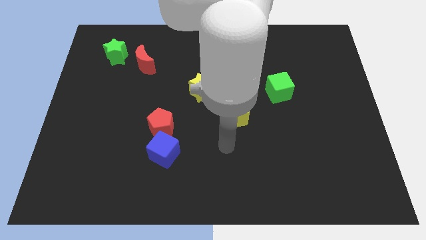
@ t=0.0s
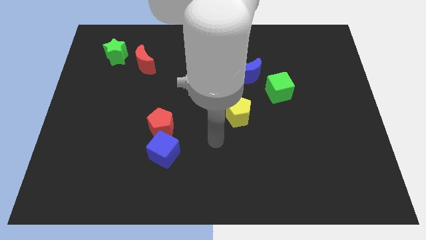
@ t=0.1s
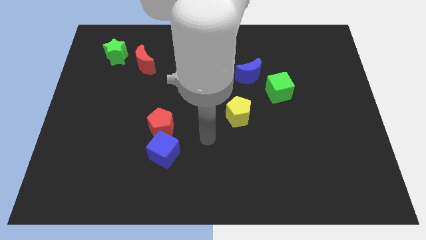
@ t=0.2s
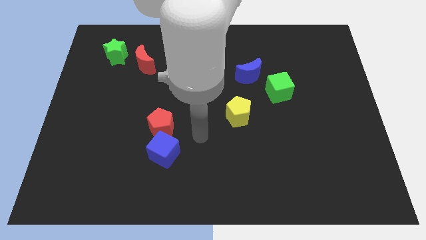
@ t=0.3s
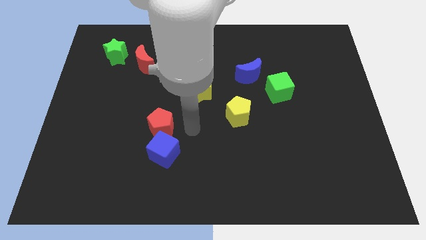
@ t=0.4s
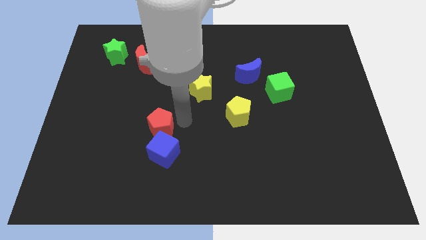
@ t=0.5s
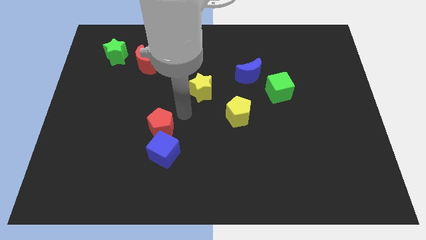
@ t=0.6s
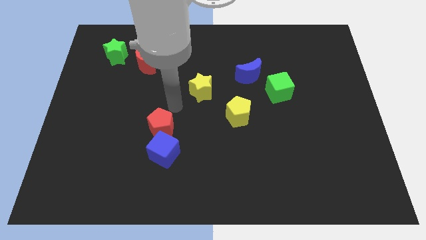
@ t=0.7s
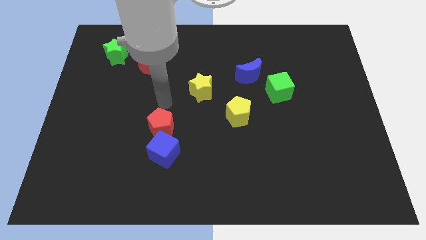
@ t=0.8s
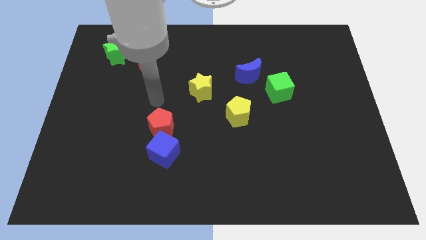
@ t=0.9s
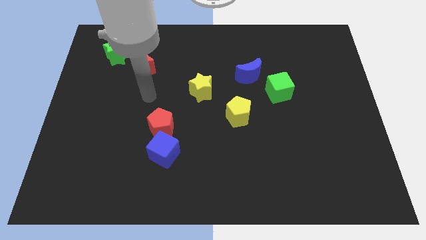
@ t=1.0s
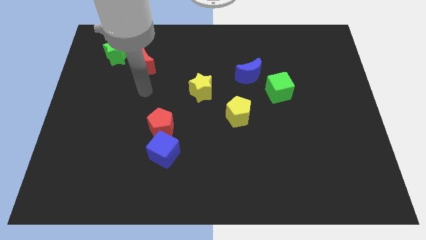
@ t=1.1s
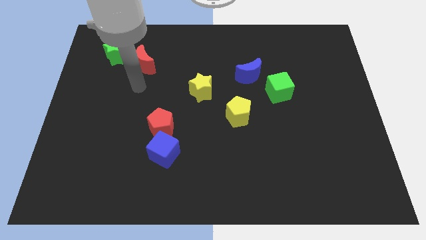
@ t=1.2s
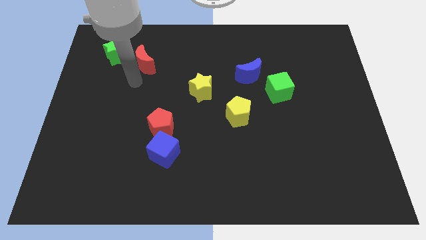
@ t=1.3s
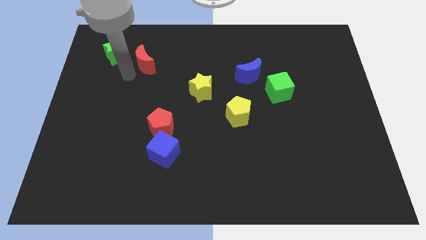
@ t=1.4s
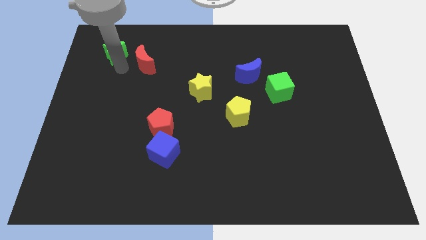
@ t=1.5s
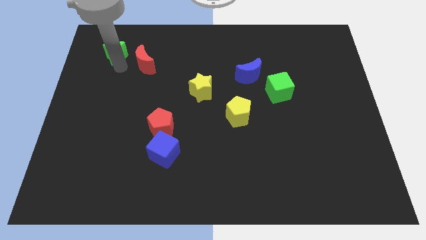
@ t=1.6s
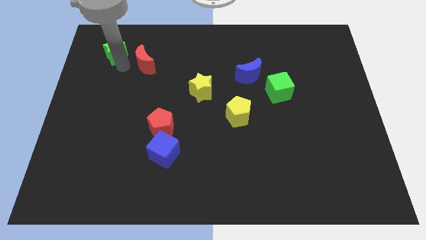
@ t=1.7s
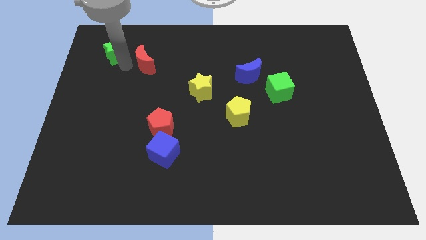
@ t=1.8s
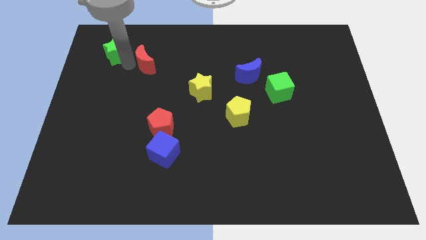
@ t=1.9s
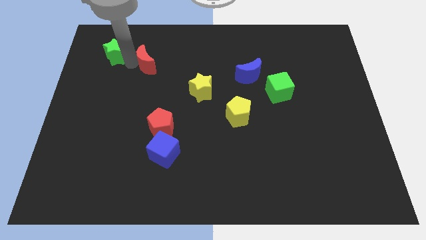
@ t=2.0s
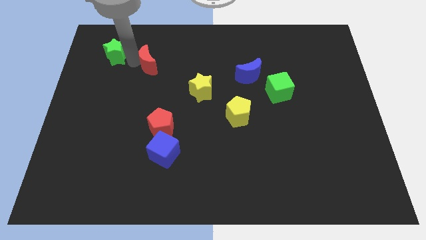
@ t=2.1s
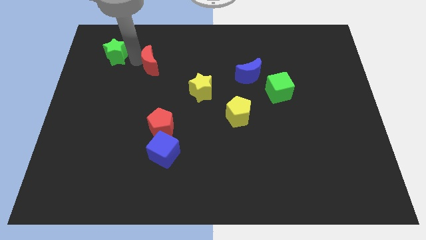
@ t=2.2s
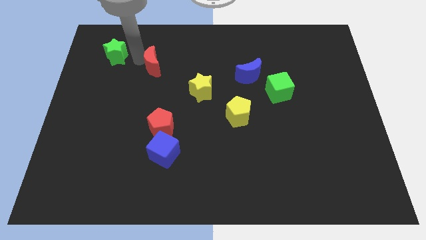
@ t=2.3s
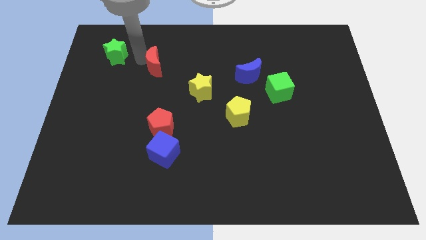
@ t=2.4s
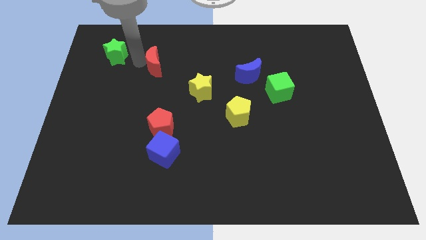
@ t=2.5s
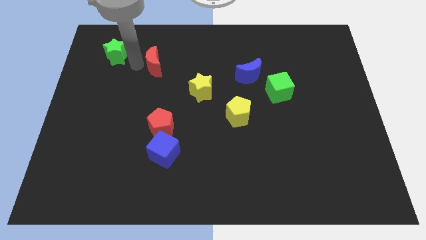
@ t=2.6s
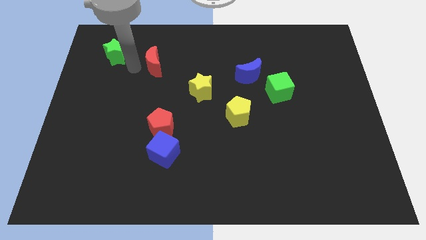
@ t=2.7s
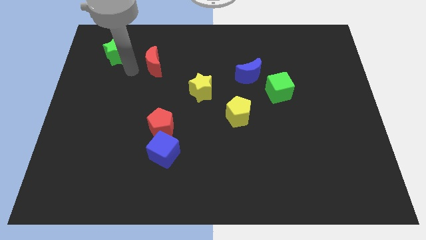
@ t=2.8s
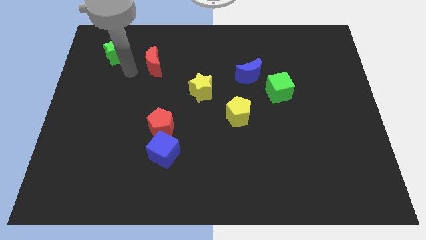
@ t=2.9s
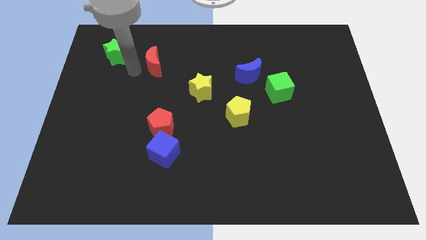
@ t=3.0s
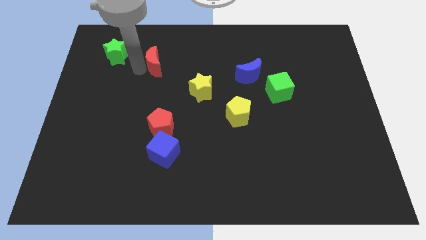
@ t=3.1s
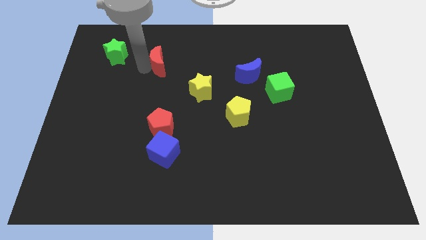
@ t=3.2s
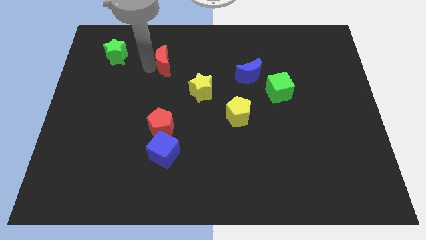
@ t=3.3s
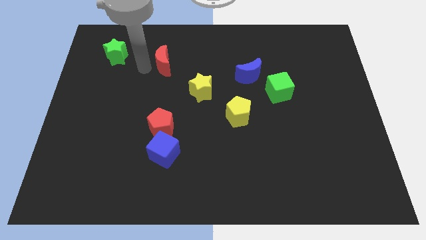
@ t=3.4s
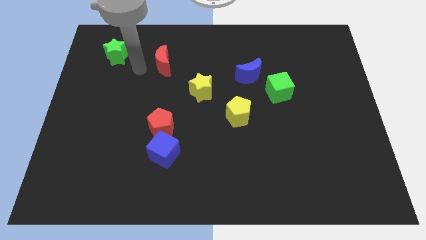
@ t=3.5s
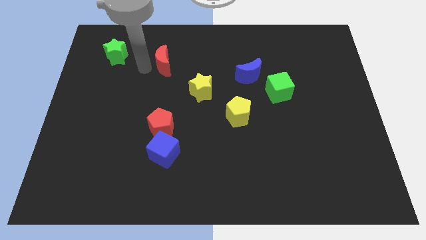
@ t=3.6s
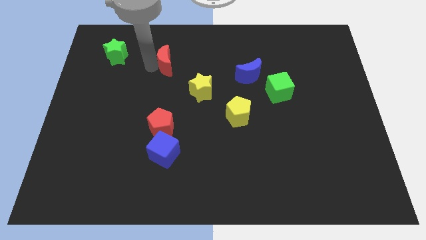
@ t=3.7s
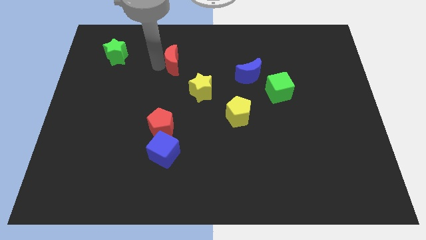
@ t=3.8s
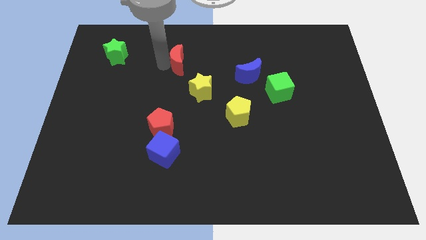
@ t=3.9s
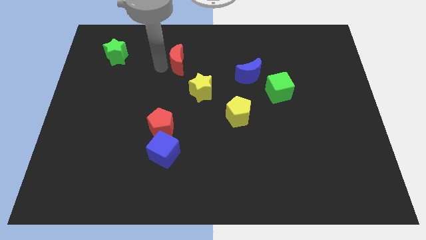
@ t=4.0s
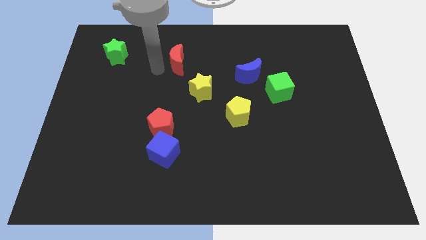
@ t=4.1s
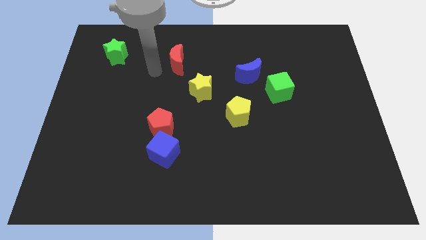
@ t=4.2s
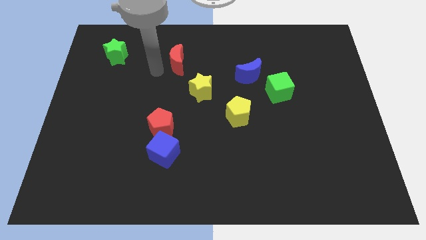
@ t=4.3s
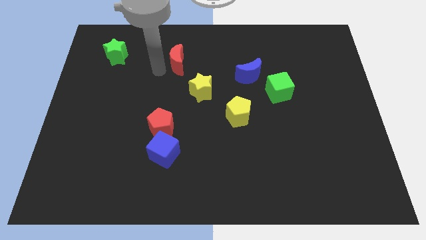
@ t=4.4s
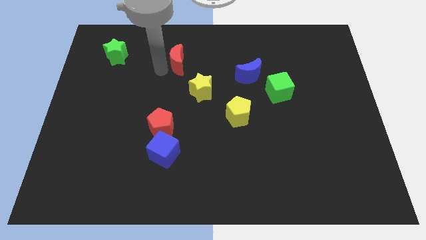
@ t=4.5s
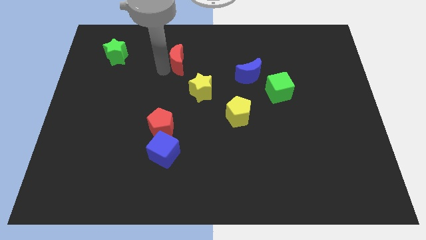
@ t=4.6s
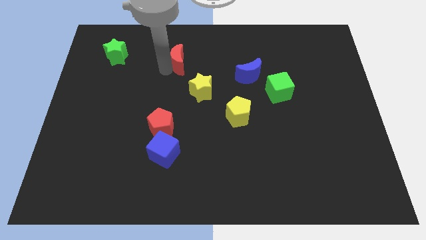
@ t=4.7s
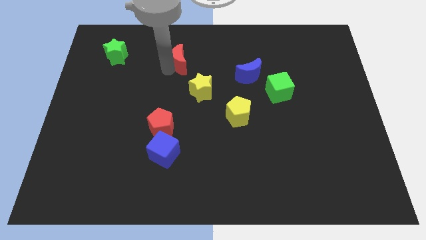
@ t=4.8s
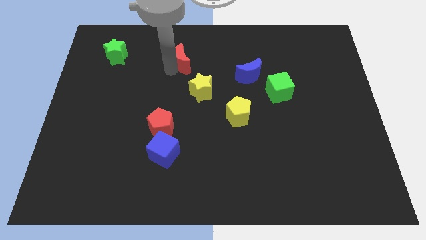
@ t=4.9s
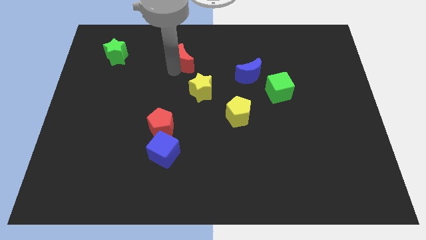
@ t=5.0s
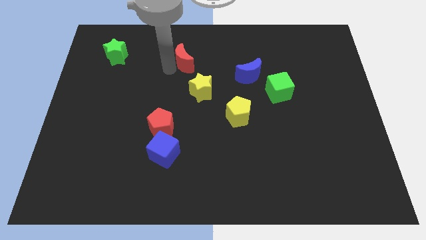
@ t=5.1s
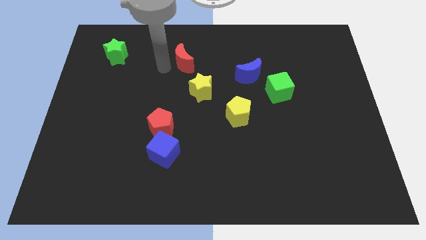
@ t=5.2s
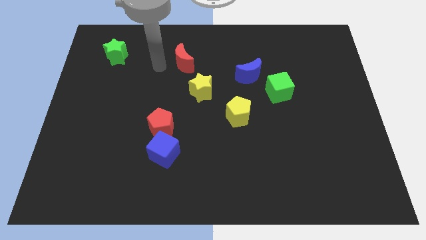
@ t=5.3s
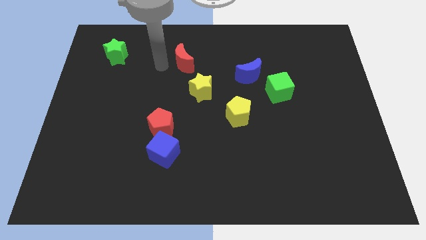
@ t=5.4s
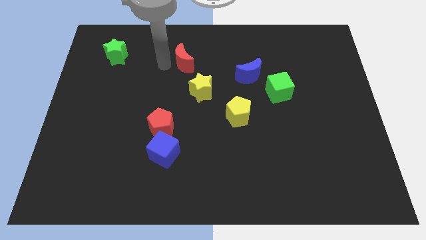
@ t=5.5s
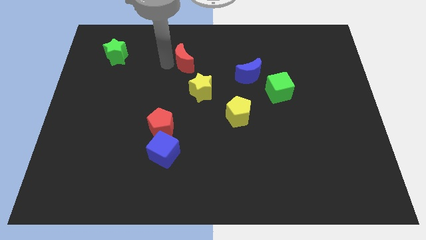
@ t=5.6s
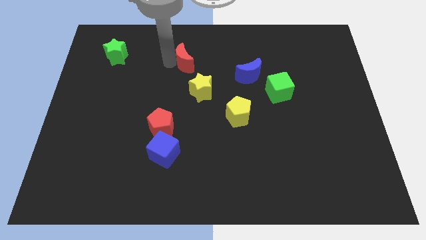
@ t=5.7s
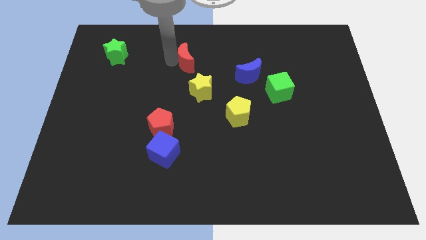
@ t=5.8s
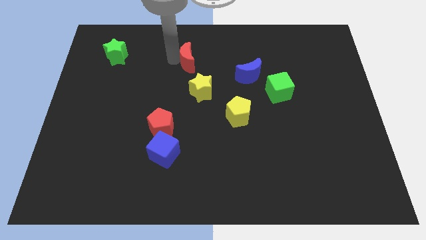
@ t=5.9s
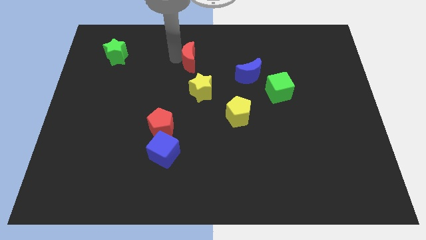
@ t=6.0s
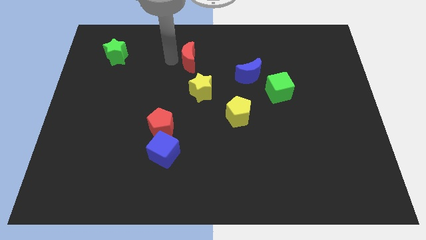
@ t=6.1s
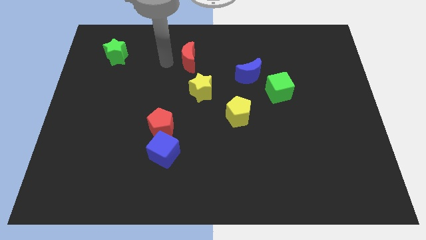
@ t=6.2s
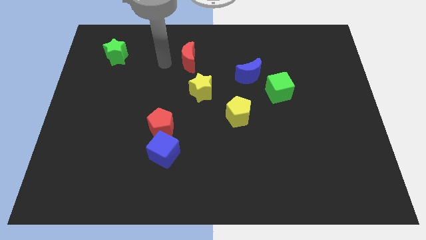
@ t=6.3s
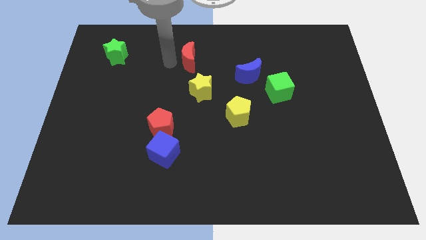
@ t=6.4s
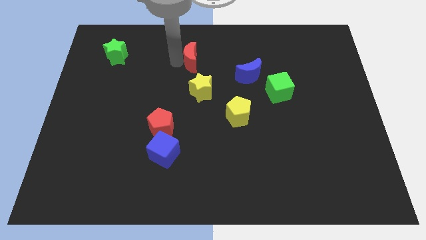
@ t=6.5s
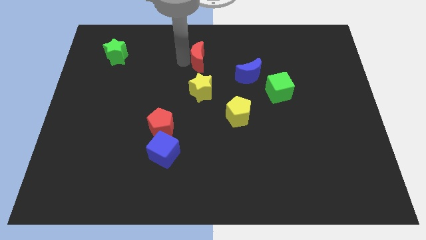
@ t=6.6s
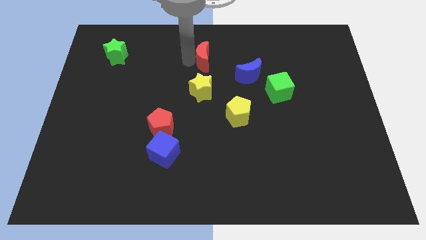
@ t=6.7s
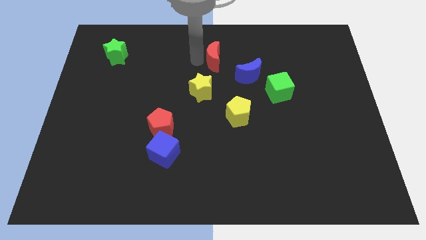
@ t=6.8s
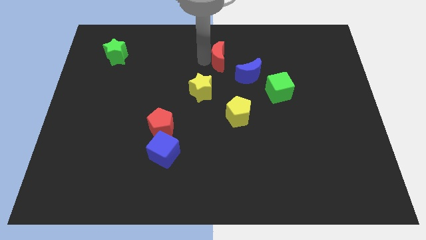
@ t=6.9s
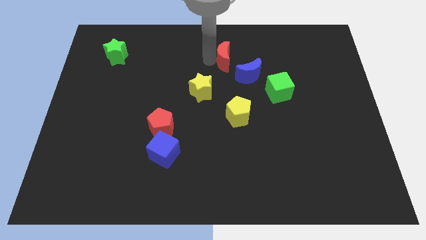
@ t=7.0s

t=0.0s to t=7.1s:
push the red moon right

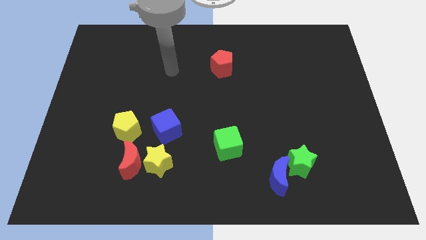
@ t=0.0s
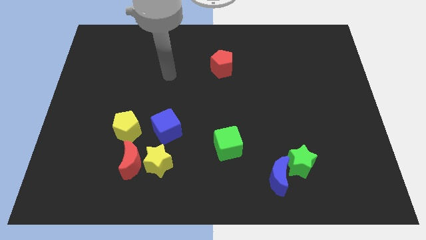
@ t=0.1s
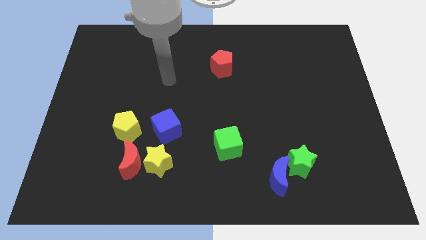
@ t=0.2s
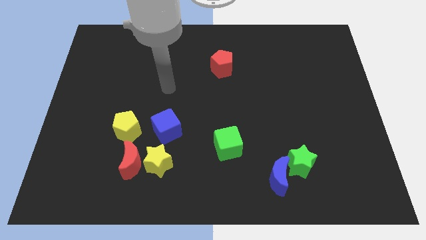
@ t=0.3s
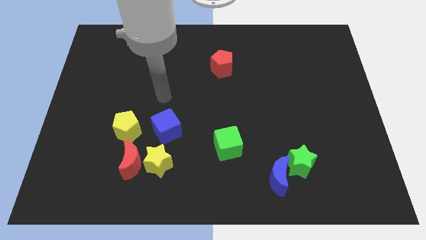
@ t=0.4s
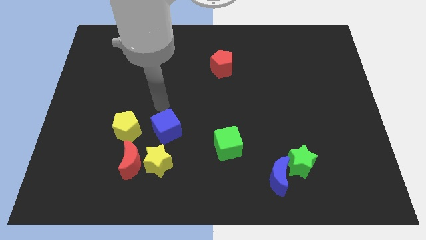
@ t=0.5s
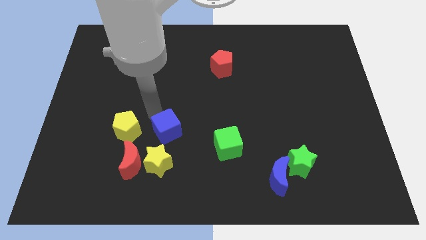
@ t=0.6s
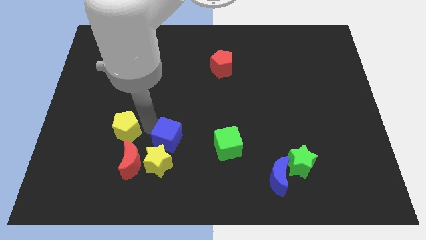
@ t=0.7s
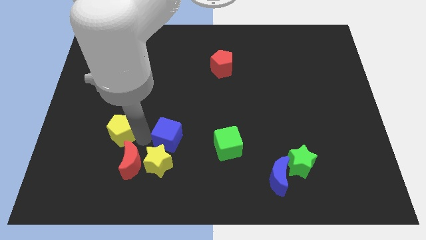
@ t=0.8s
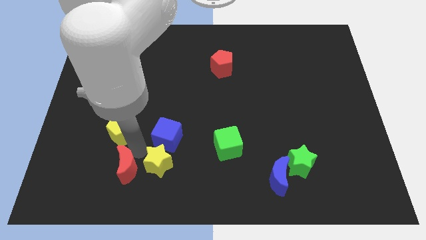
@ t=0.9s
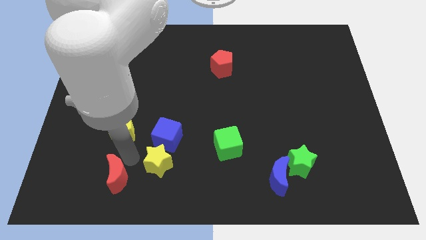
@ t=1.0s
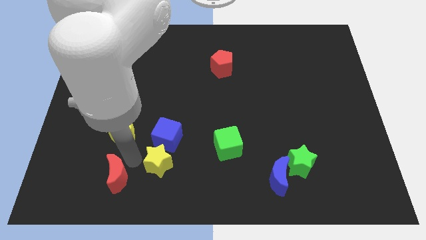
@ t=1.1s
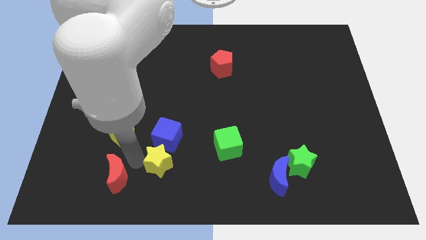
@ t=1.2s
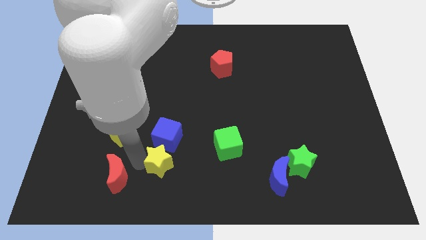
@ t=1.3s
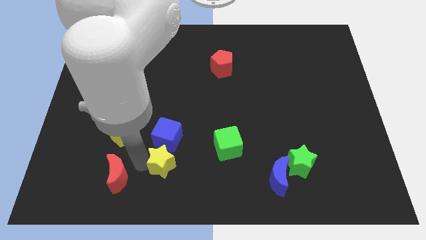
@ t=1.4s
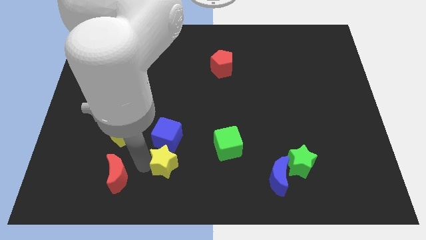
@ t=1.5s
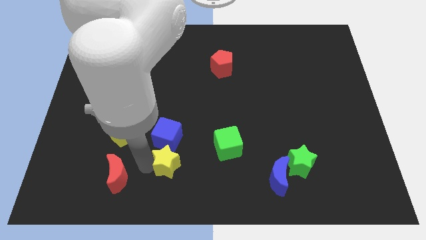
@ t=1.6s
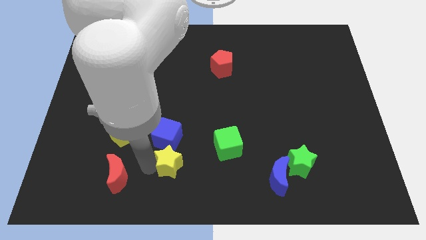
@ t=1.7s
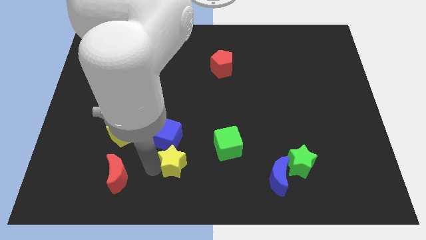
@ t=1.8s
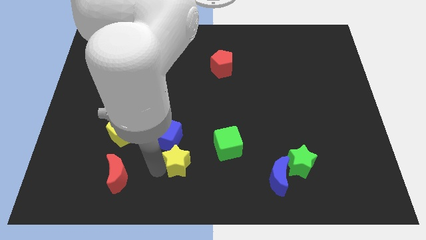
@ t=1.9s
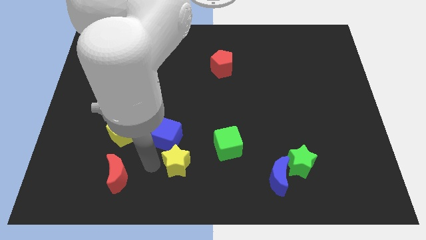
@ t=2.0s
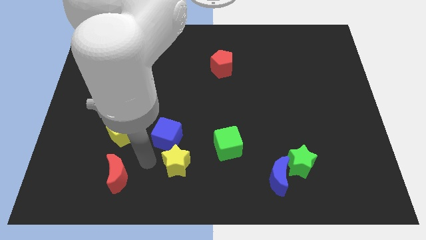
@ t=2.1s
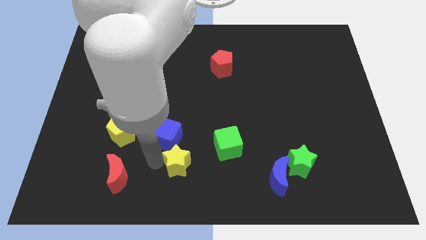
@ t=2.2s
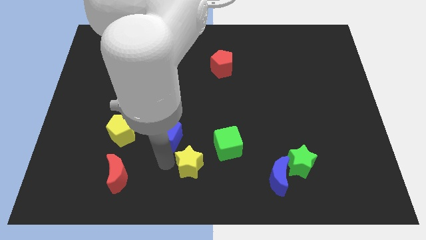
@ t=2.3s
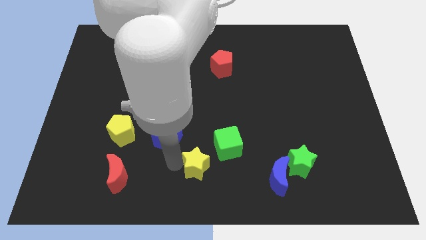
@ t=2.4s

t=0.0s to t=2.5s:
slightly push the yellow star to the right
